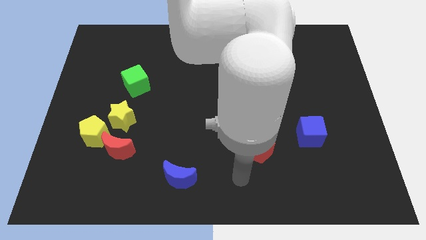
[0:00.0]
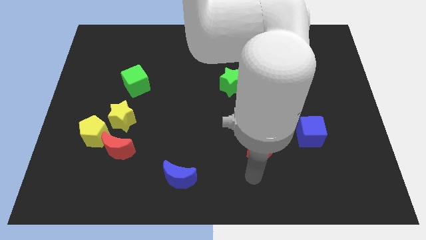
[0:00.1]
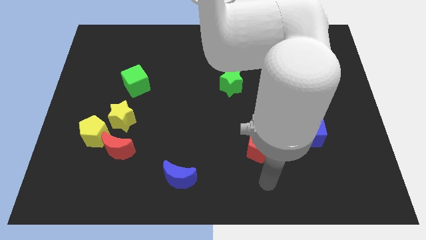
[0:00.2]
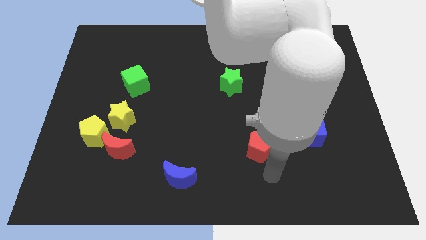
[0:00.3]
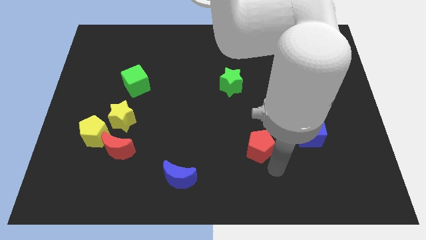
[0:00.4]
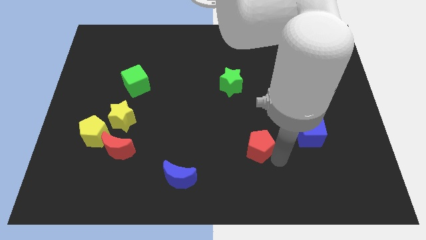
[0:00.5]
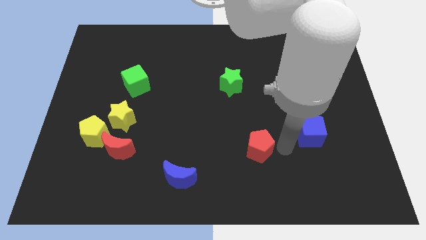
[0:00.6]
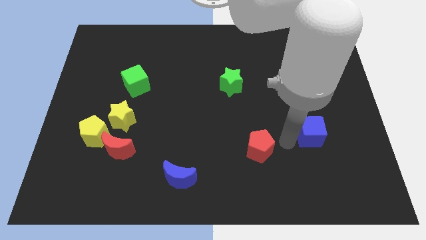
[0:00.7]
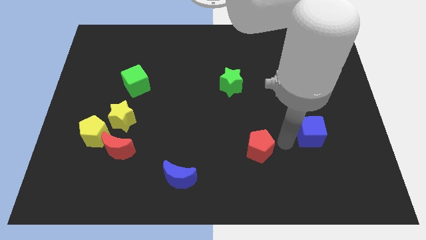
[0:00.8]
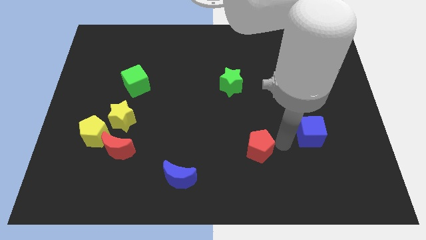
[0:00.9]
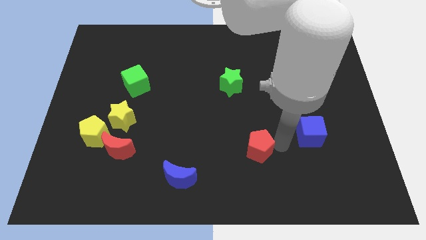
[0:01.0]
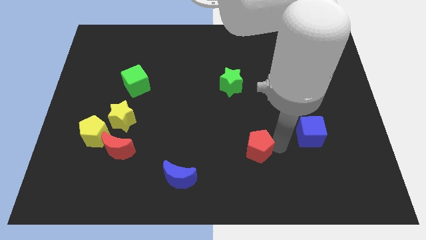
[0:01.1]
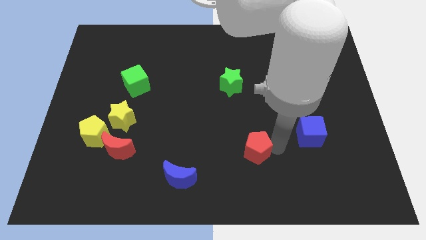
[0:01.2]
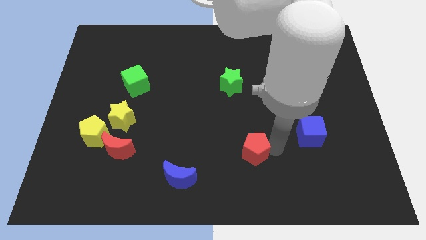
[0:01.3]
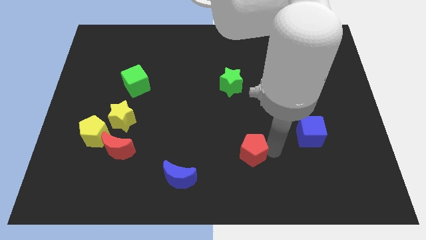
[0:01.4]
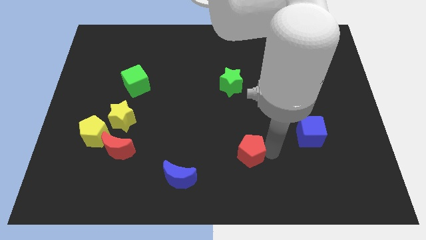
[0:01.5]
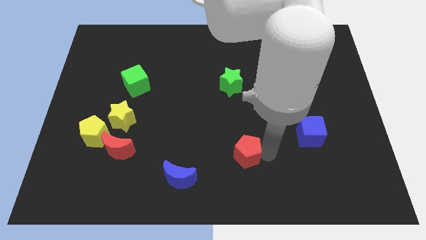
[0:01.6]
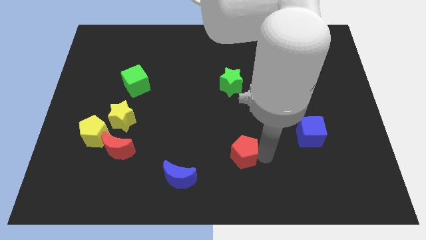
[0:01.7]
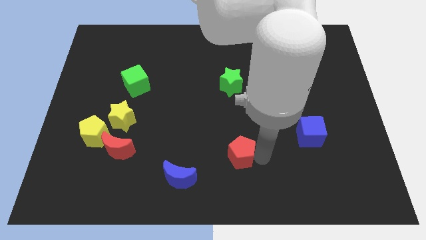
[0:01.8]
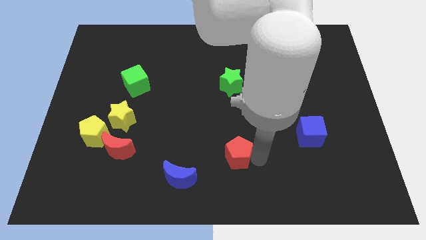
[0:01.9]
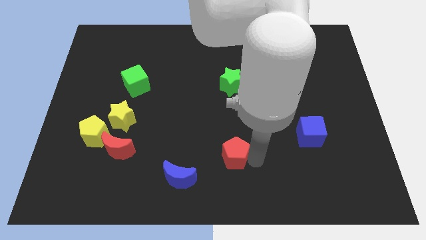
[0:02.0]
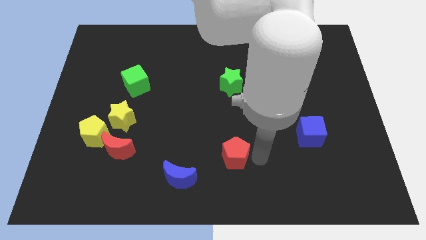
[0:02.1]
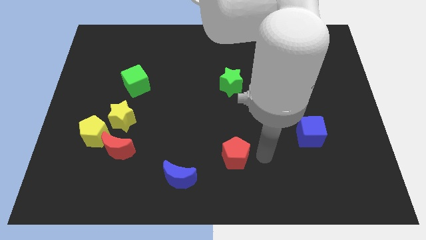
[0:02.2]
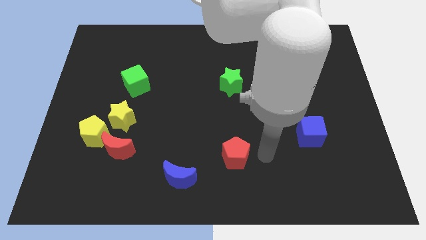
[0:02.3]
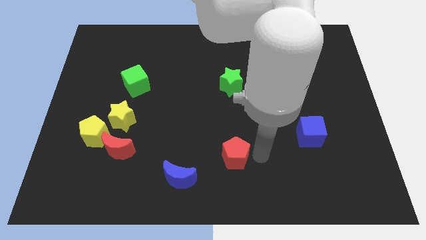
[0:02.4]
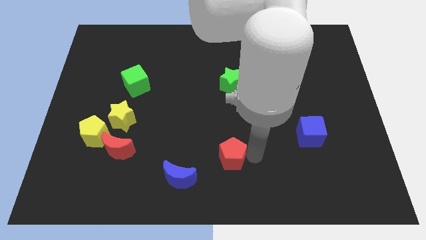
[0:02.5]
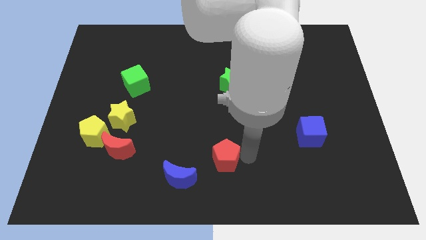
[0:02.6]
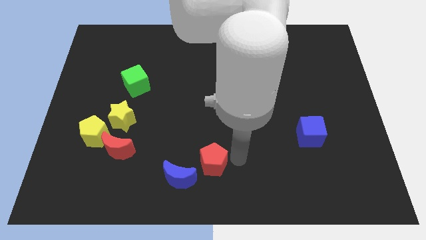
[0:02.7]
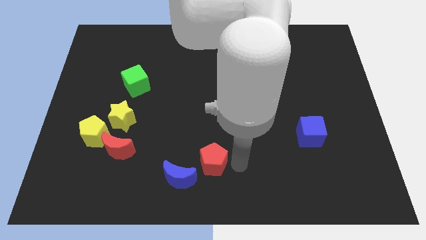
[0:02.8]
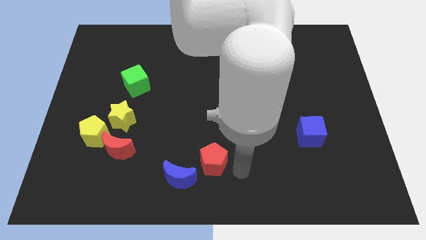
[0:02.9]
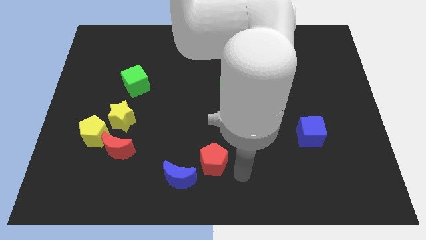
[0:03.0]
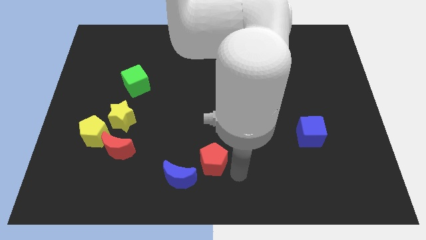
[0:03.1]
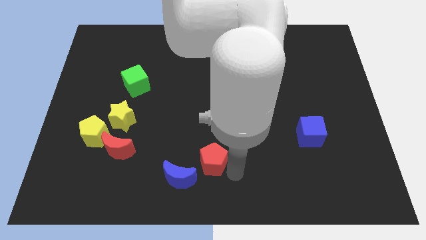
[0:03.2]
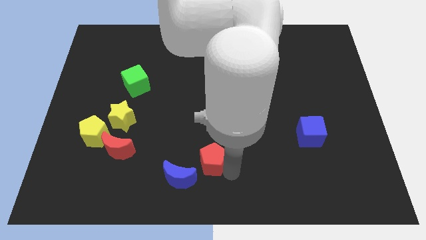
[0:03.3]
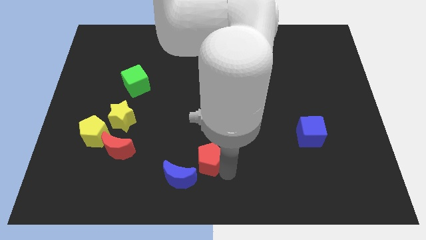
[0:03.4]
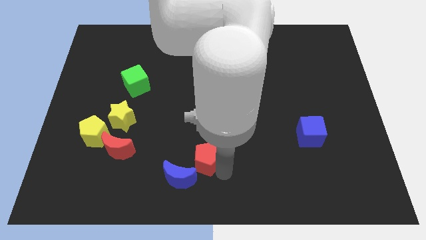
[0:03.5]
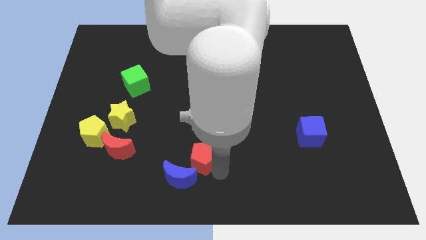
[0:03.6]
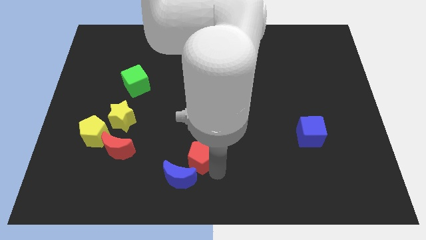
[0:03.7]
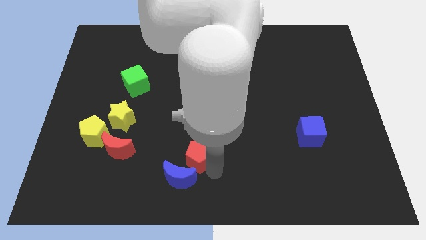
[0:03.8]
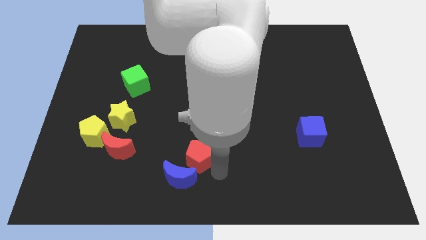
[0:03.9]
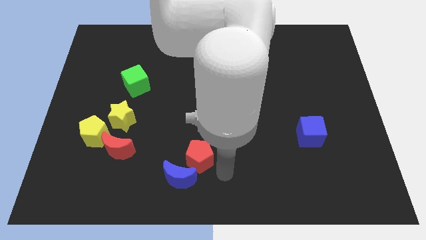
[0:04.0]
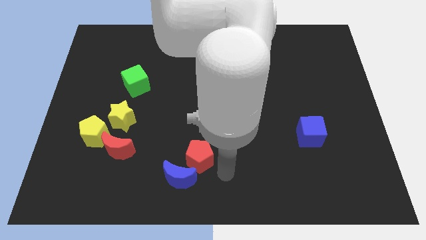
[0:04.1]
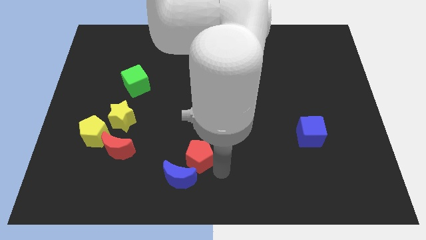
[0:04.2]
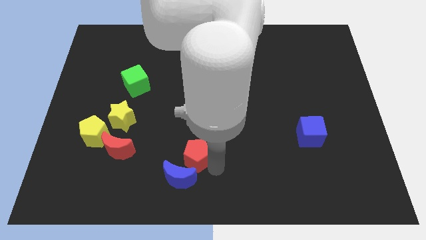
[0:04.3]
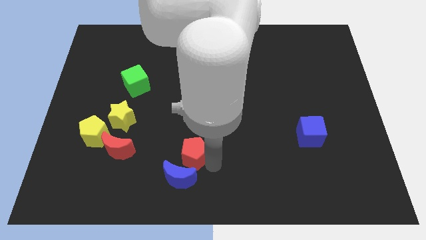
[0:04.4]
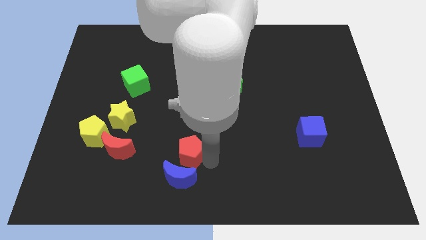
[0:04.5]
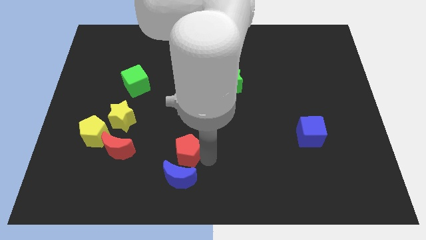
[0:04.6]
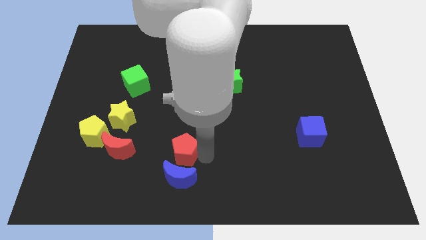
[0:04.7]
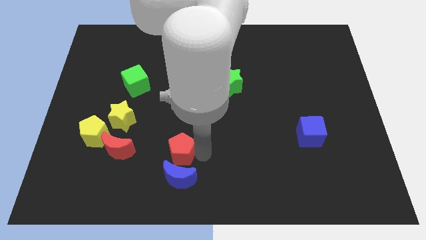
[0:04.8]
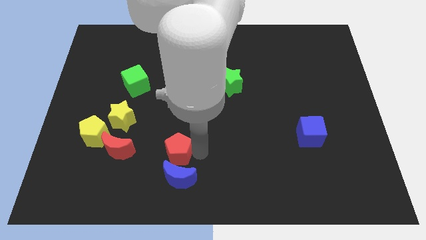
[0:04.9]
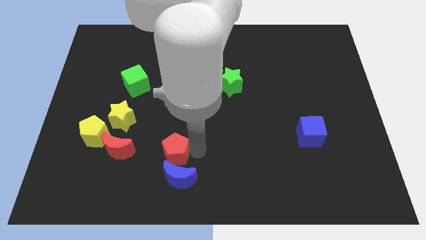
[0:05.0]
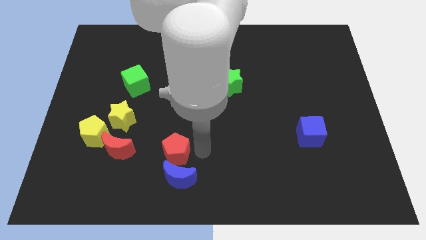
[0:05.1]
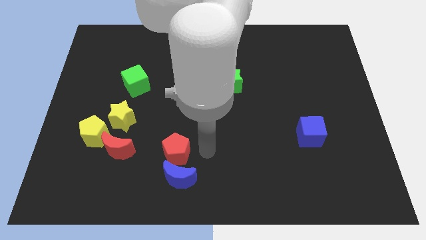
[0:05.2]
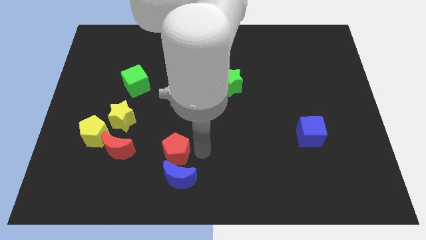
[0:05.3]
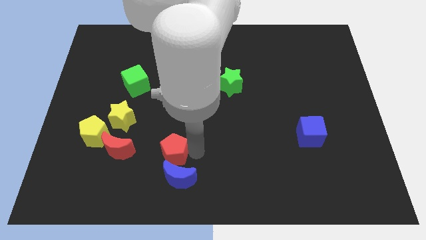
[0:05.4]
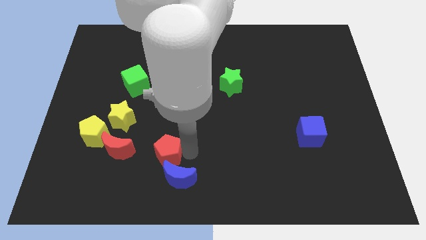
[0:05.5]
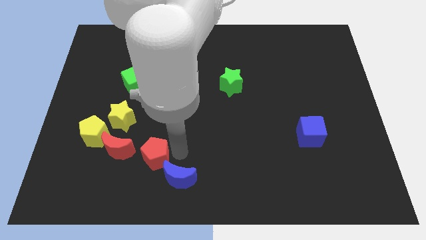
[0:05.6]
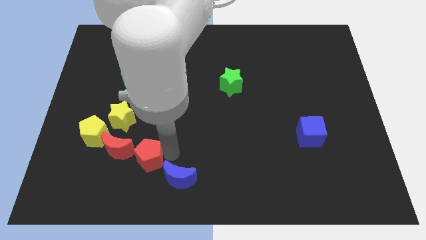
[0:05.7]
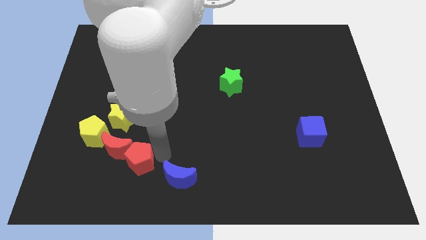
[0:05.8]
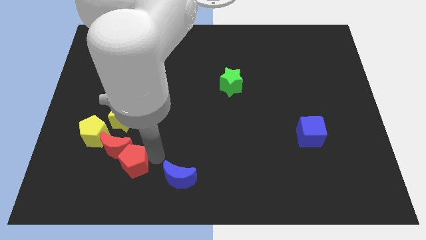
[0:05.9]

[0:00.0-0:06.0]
push the red pentagon diagonally down and to the right of the yellow pentagon

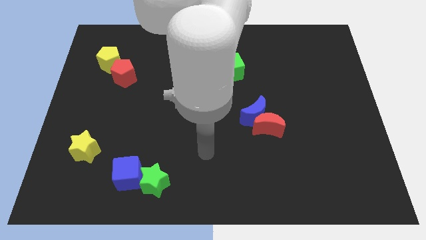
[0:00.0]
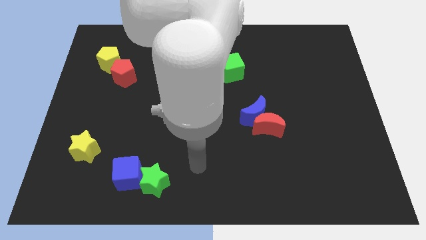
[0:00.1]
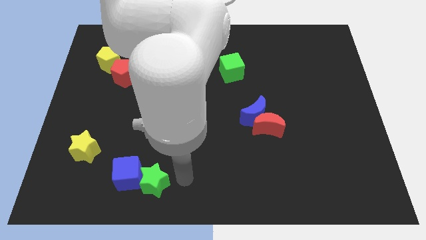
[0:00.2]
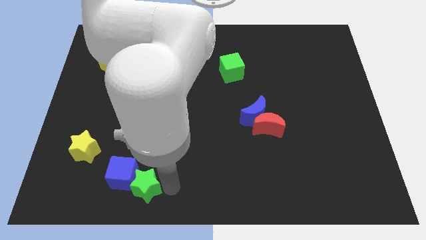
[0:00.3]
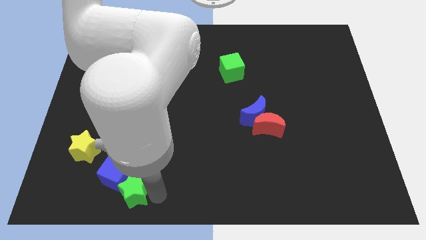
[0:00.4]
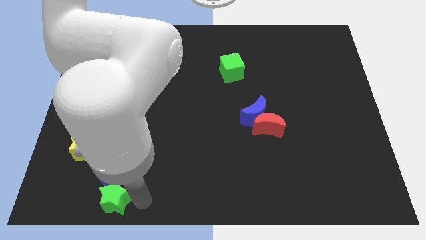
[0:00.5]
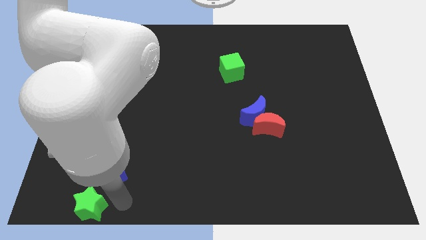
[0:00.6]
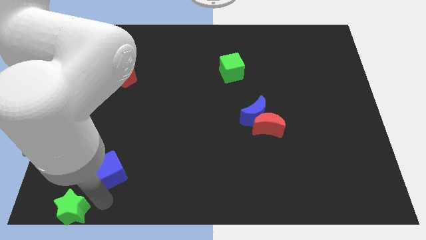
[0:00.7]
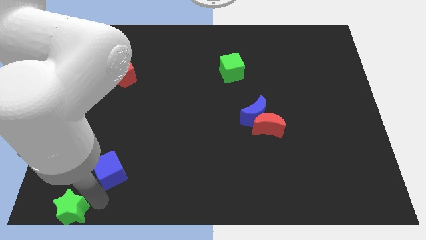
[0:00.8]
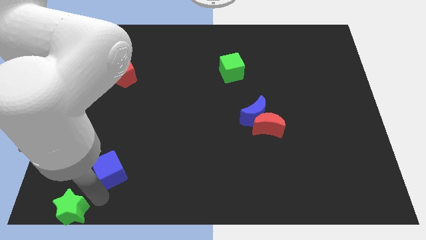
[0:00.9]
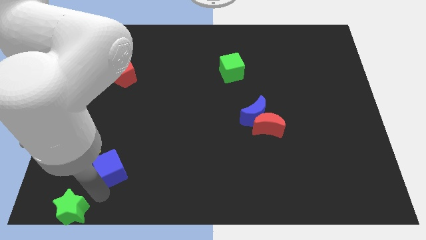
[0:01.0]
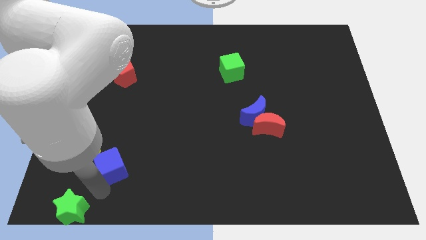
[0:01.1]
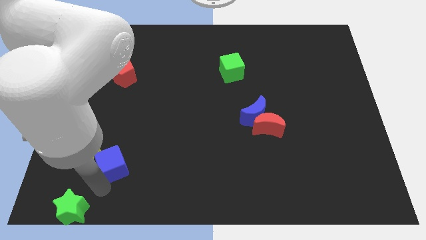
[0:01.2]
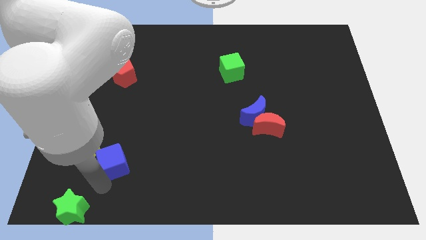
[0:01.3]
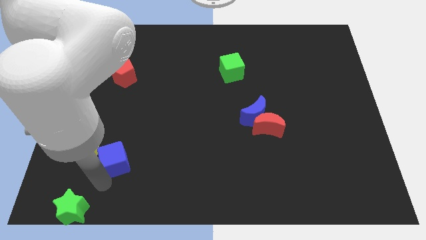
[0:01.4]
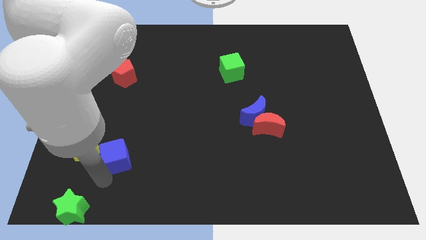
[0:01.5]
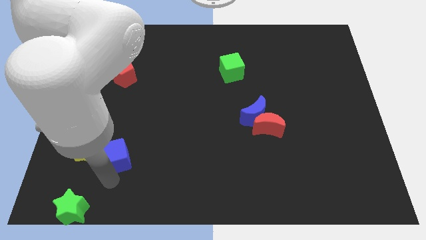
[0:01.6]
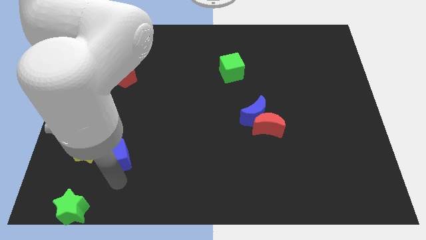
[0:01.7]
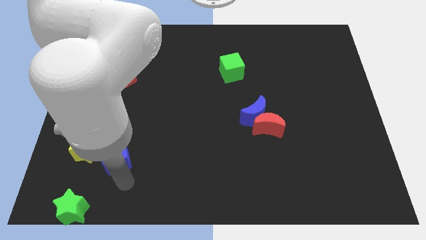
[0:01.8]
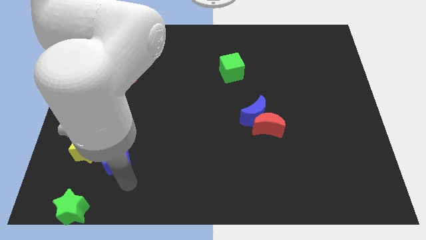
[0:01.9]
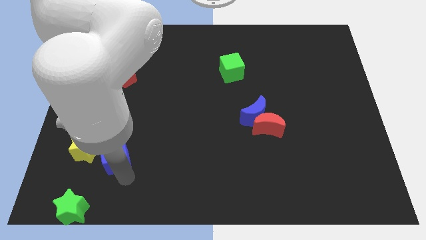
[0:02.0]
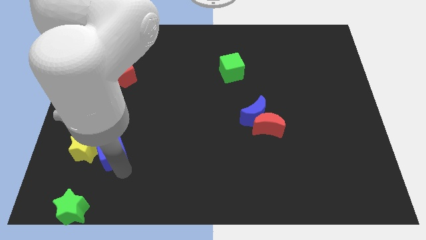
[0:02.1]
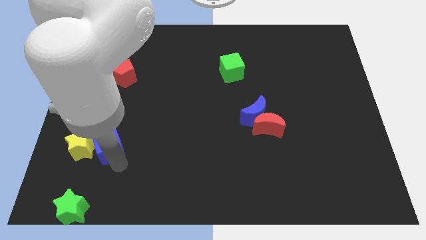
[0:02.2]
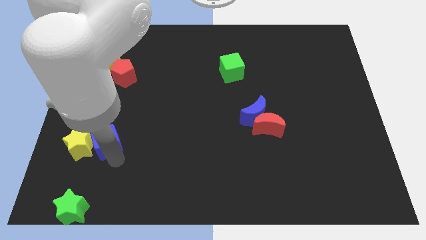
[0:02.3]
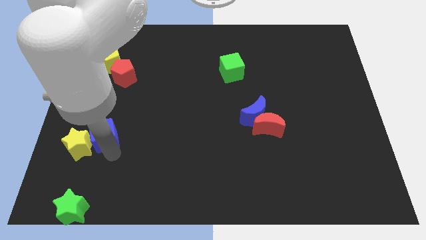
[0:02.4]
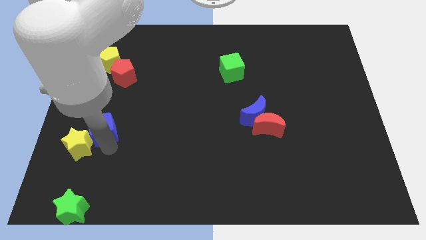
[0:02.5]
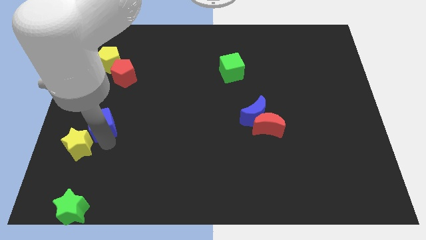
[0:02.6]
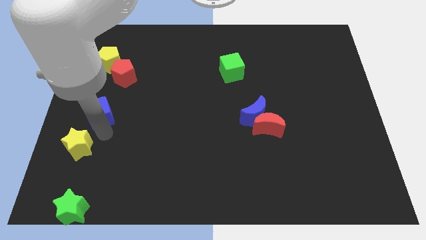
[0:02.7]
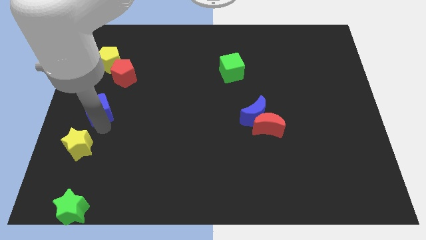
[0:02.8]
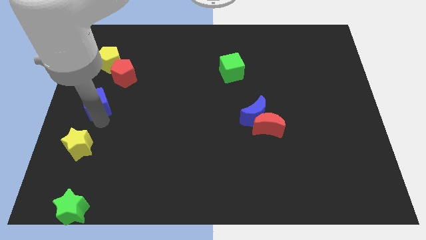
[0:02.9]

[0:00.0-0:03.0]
push the blue cube to the bottom left side of the red pentagon
